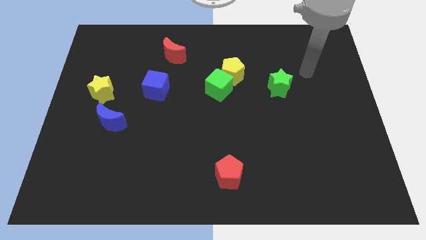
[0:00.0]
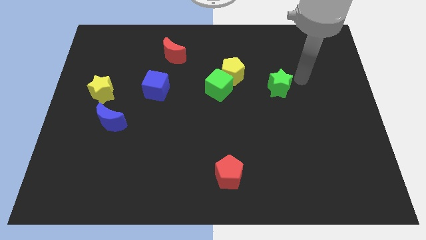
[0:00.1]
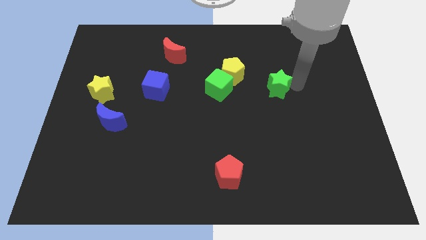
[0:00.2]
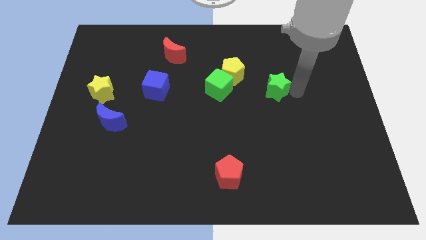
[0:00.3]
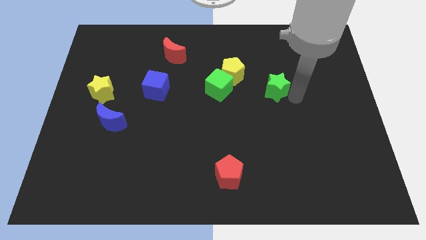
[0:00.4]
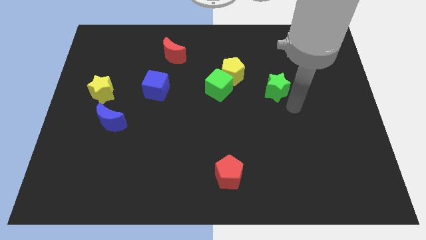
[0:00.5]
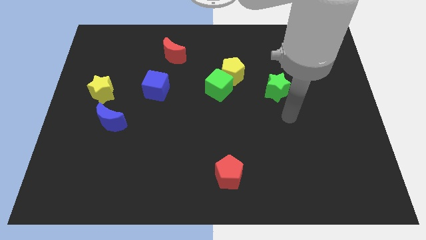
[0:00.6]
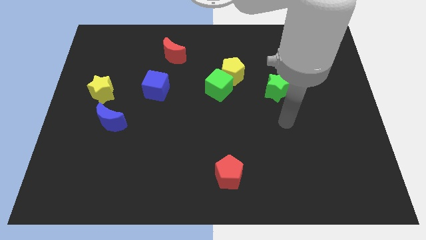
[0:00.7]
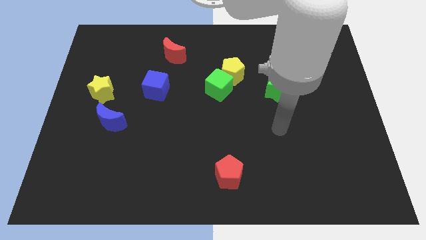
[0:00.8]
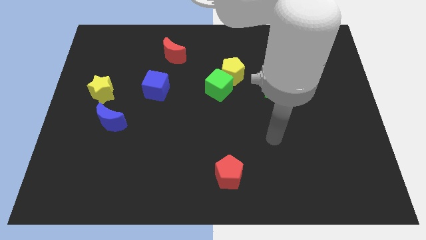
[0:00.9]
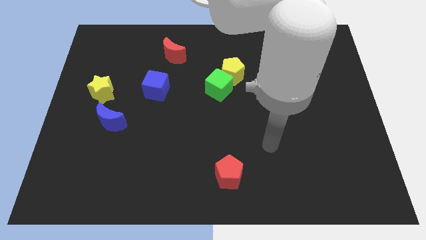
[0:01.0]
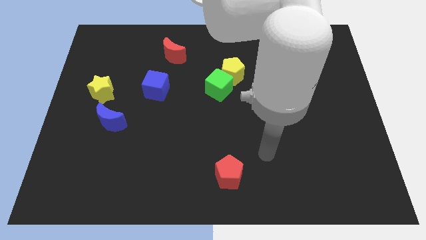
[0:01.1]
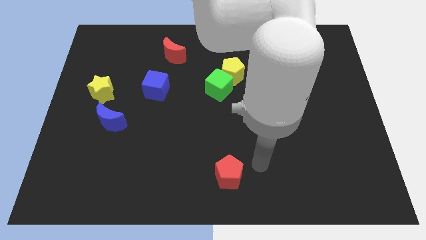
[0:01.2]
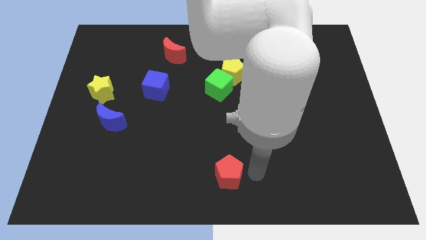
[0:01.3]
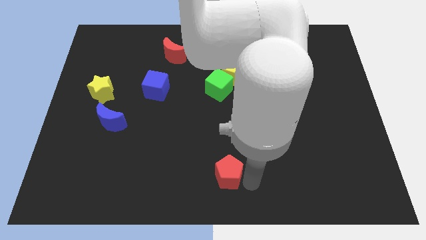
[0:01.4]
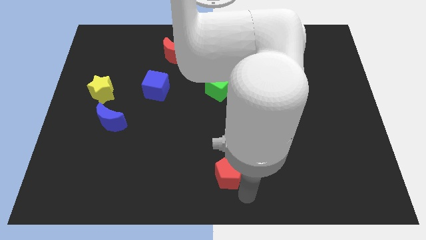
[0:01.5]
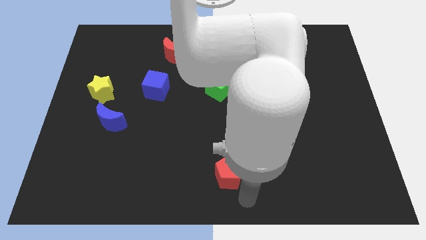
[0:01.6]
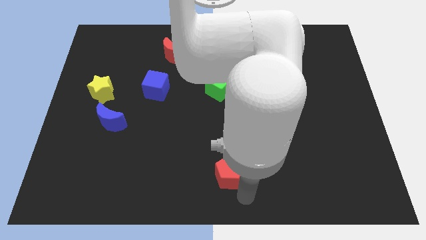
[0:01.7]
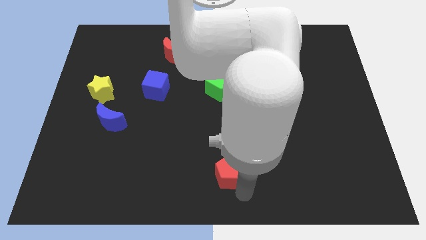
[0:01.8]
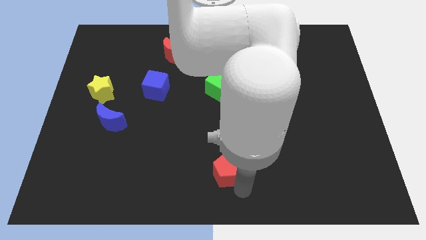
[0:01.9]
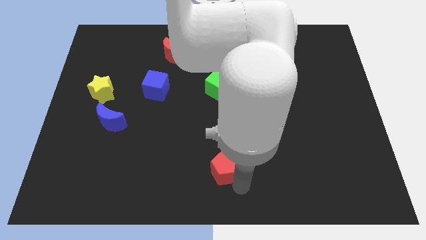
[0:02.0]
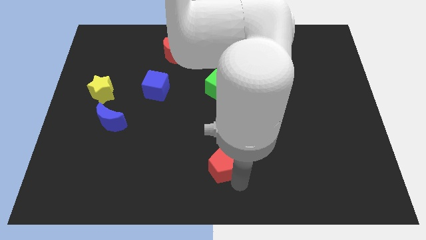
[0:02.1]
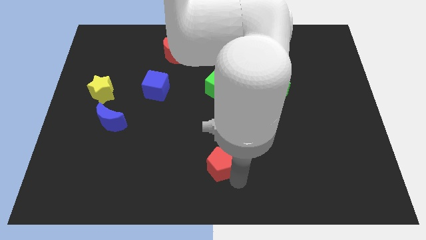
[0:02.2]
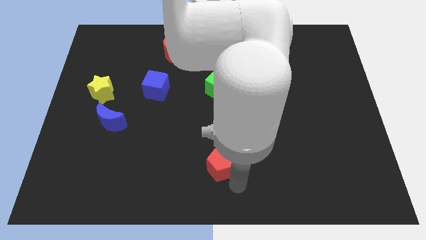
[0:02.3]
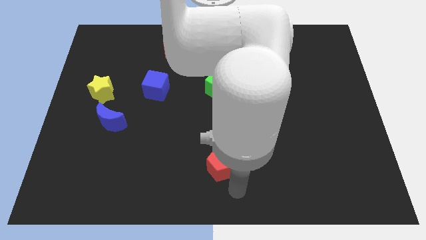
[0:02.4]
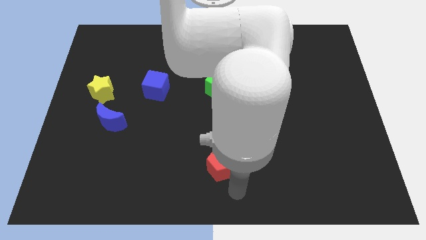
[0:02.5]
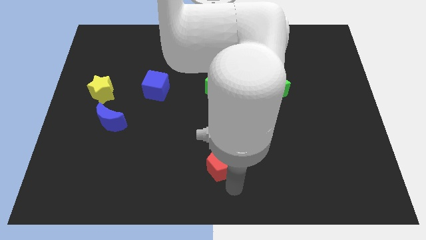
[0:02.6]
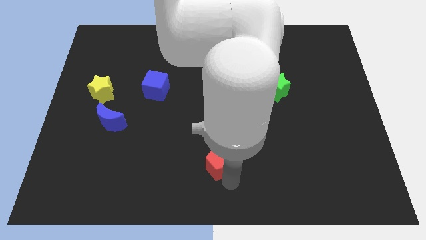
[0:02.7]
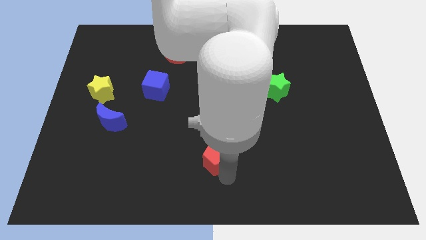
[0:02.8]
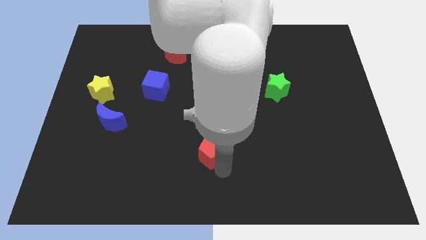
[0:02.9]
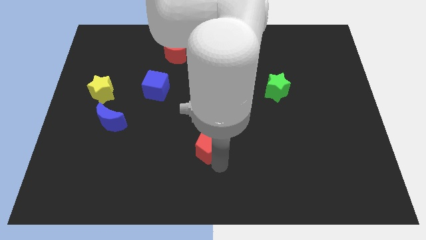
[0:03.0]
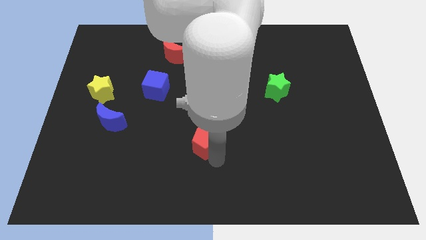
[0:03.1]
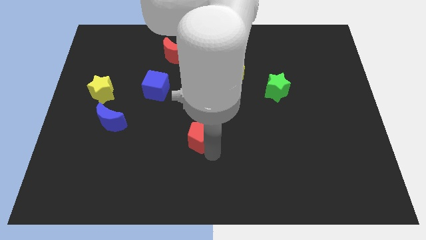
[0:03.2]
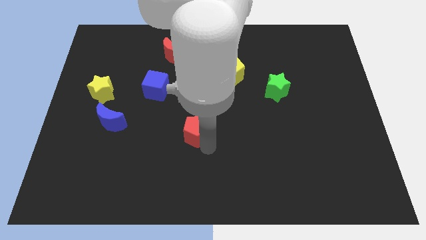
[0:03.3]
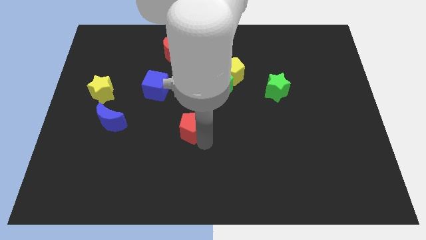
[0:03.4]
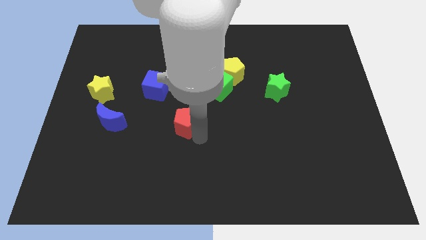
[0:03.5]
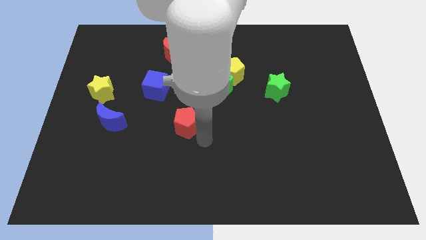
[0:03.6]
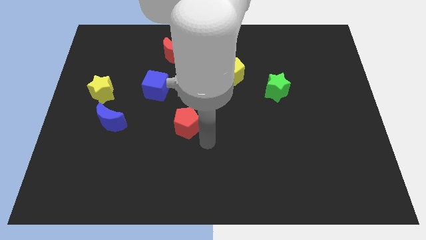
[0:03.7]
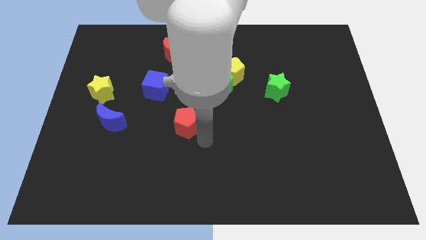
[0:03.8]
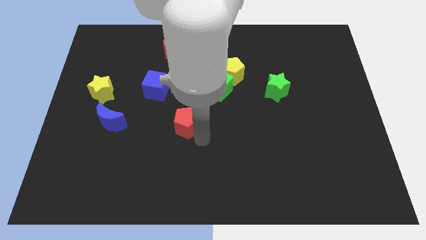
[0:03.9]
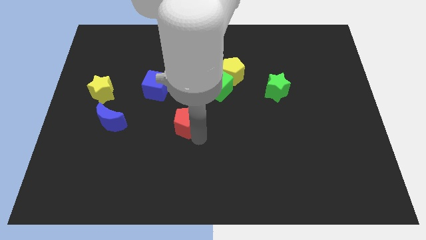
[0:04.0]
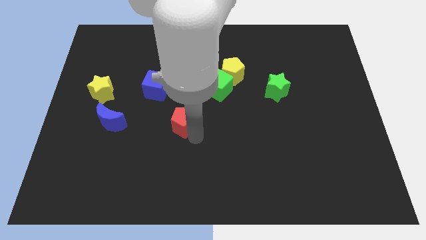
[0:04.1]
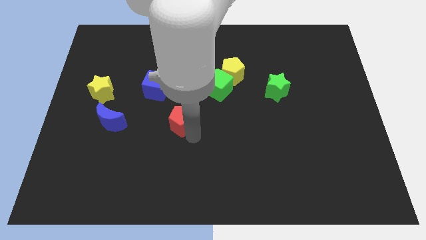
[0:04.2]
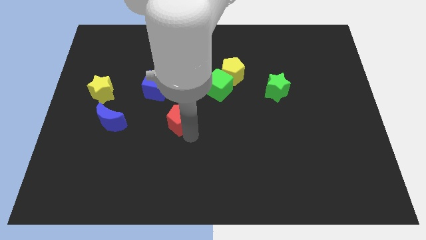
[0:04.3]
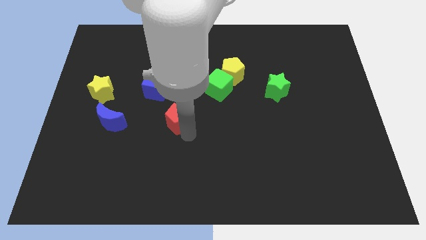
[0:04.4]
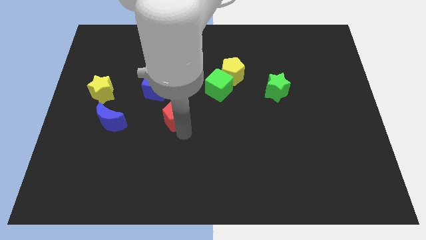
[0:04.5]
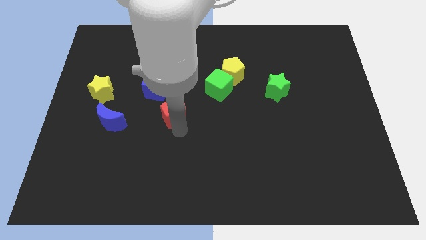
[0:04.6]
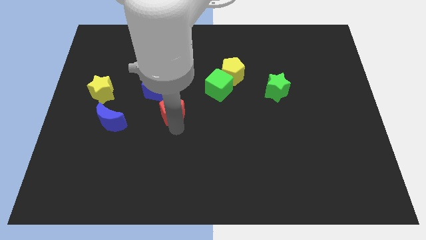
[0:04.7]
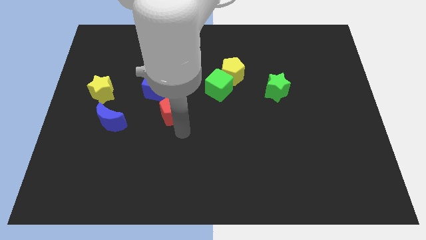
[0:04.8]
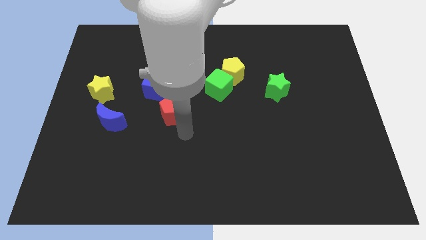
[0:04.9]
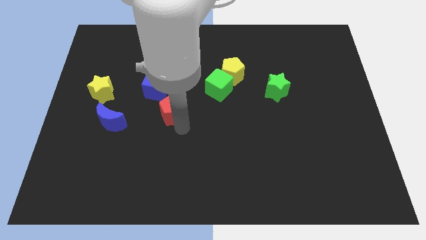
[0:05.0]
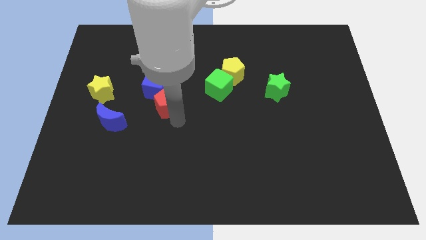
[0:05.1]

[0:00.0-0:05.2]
move the red pentagon towards the blue cube

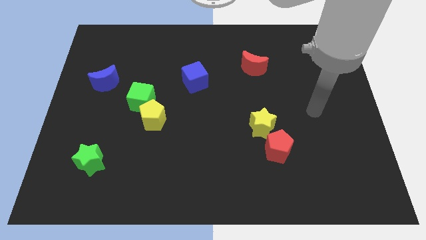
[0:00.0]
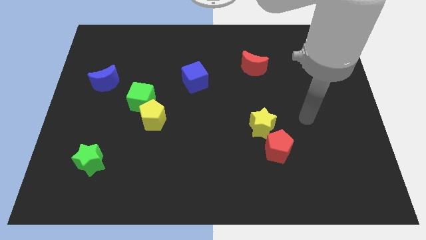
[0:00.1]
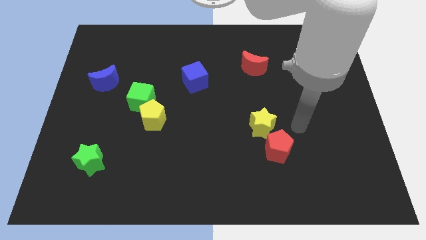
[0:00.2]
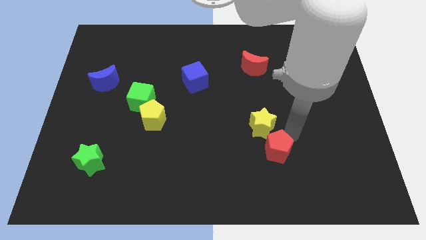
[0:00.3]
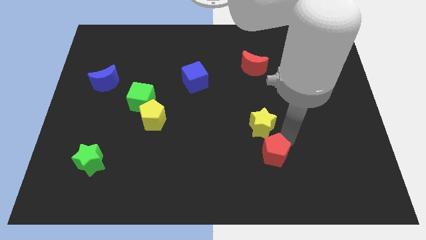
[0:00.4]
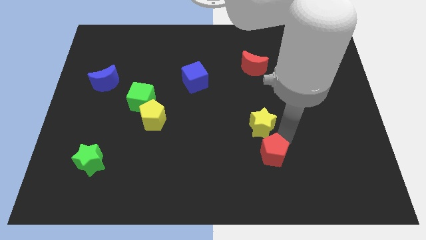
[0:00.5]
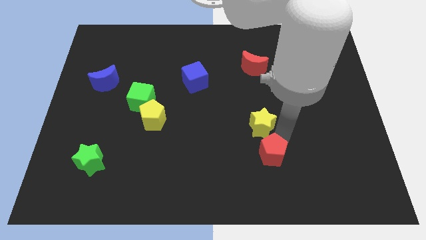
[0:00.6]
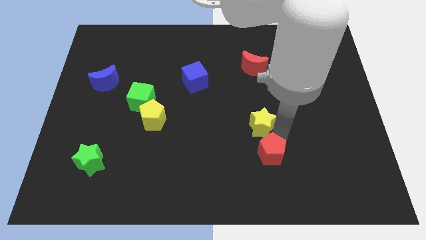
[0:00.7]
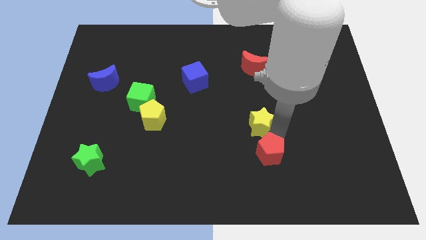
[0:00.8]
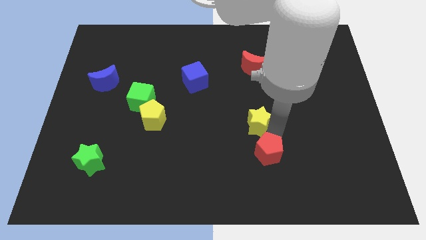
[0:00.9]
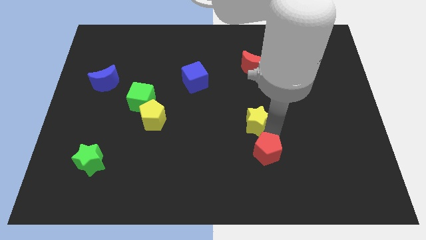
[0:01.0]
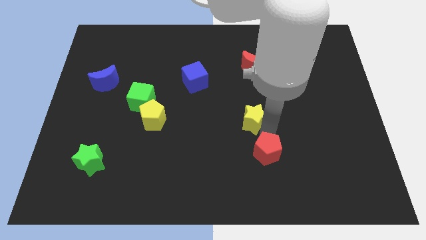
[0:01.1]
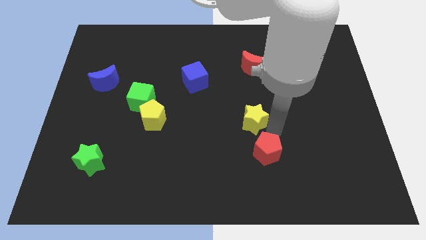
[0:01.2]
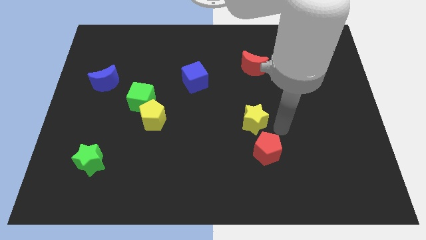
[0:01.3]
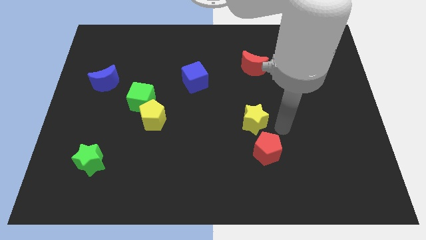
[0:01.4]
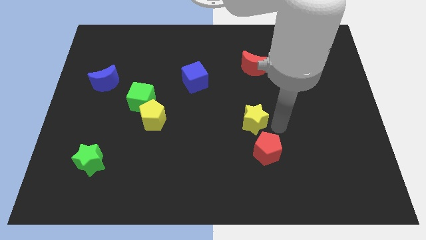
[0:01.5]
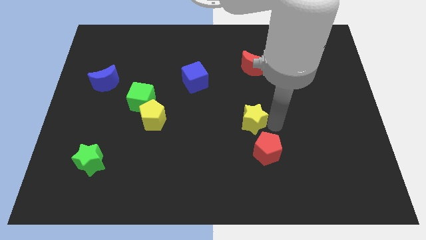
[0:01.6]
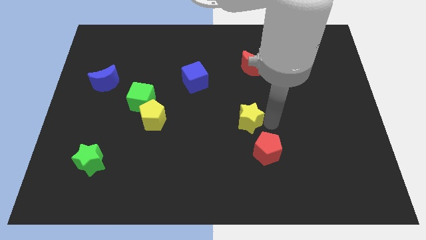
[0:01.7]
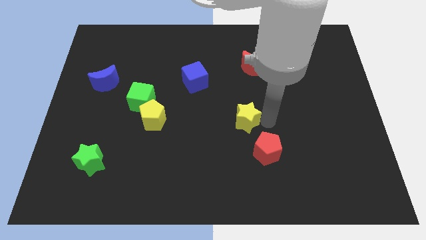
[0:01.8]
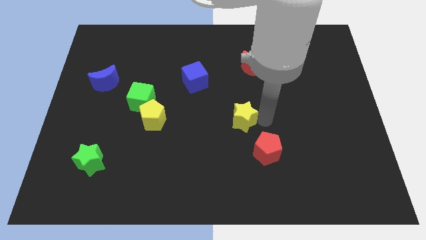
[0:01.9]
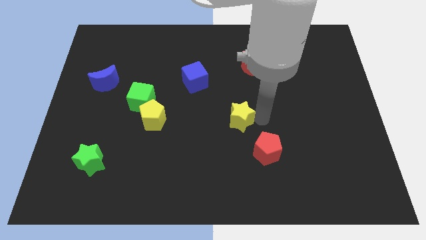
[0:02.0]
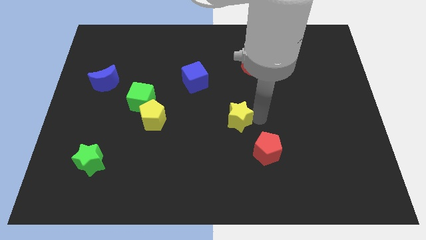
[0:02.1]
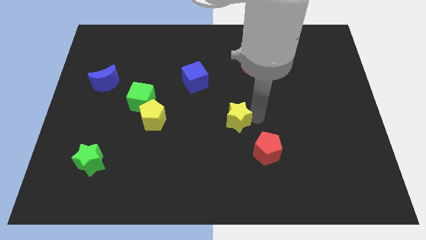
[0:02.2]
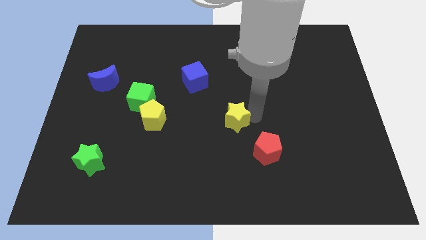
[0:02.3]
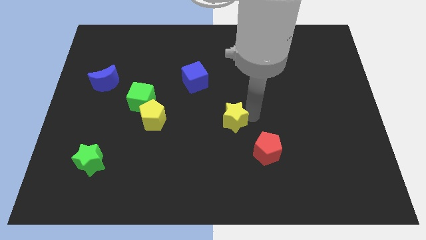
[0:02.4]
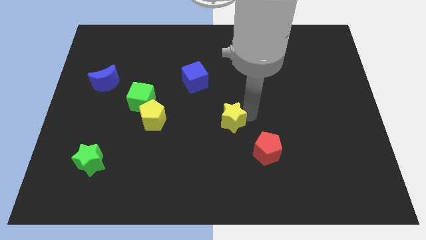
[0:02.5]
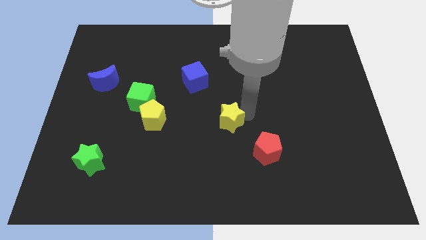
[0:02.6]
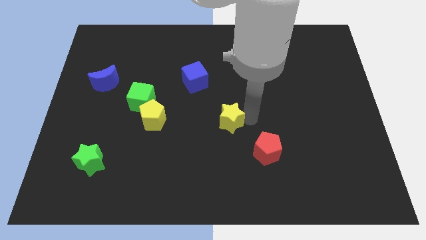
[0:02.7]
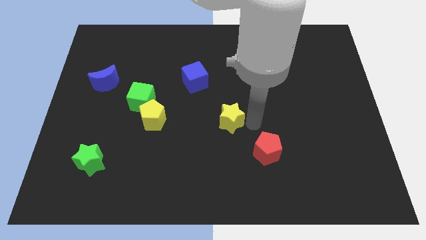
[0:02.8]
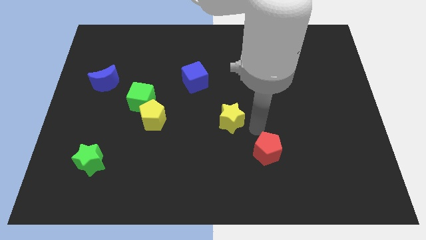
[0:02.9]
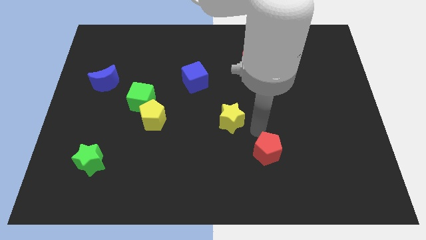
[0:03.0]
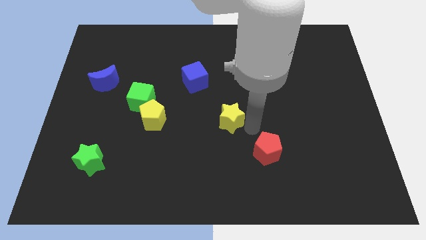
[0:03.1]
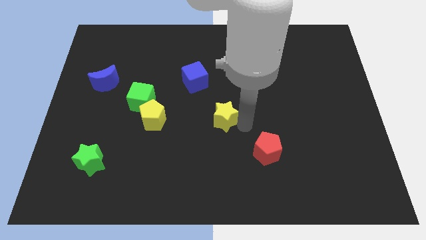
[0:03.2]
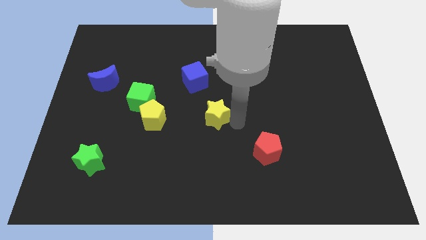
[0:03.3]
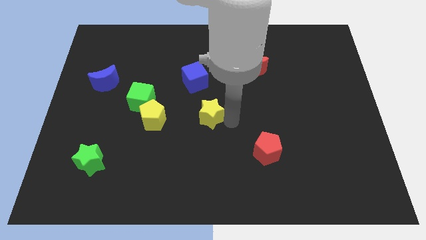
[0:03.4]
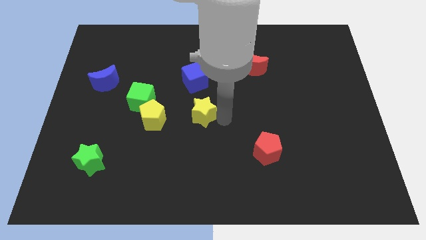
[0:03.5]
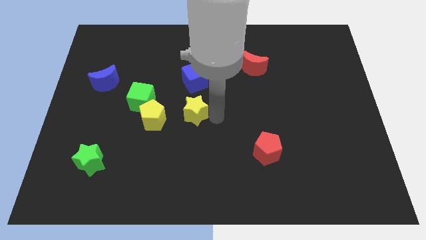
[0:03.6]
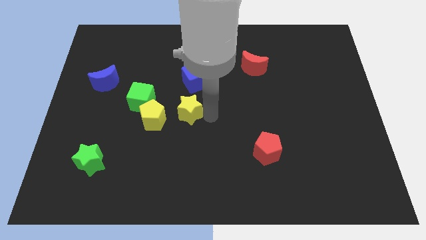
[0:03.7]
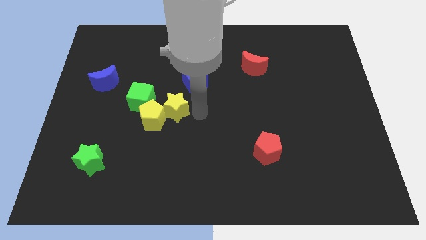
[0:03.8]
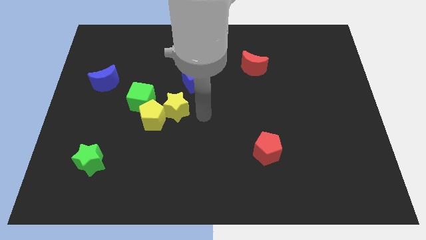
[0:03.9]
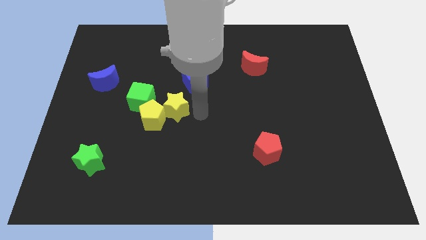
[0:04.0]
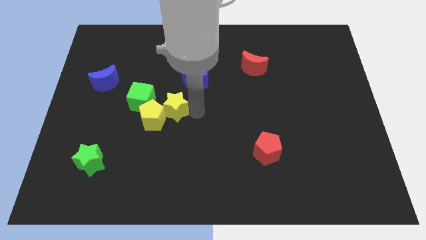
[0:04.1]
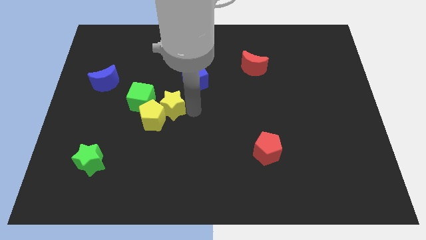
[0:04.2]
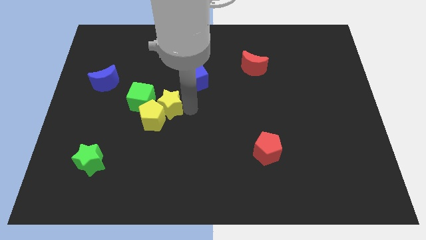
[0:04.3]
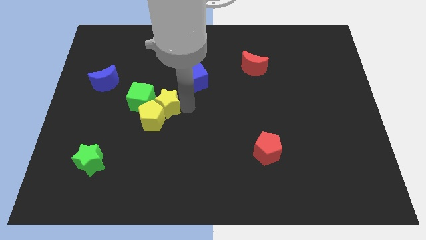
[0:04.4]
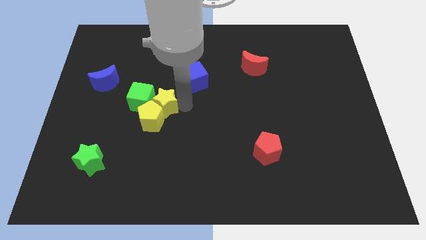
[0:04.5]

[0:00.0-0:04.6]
slide the yellow star to the green cube
